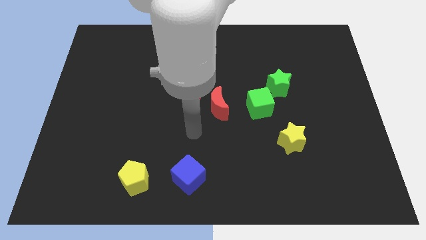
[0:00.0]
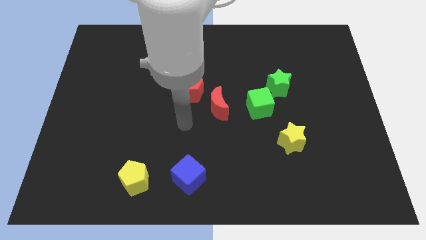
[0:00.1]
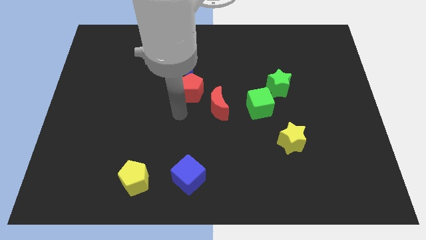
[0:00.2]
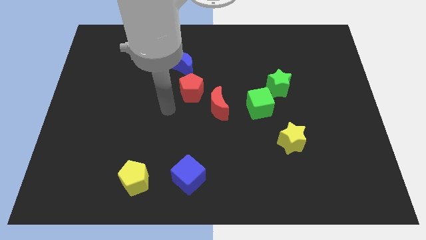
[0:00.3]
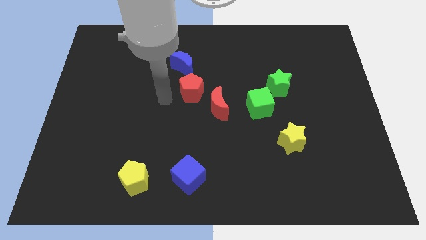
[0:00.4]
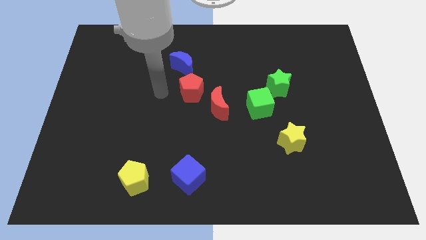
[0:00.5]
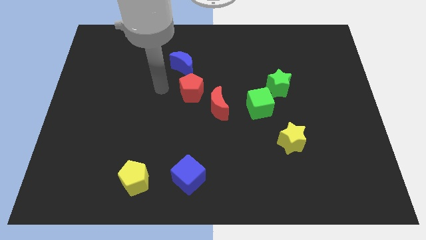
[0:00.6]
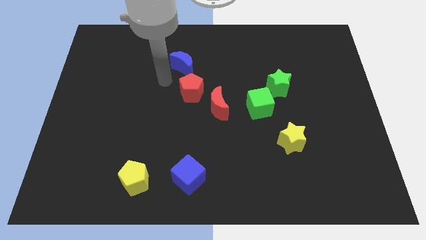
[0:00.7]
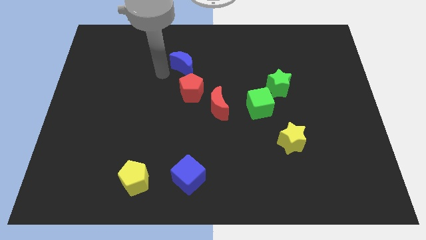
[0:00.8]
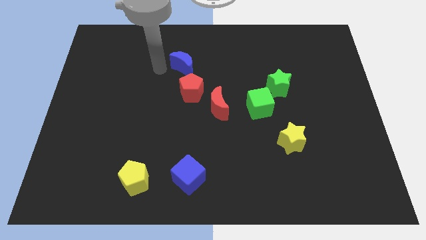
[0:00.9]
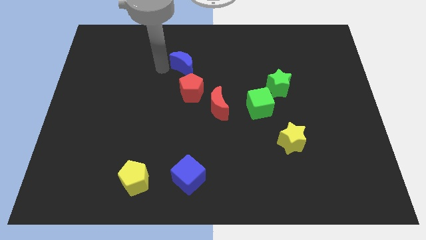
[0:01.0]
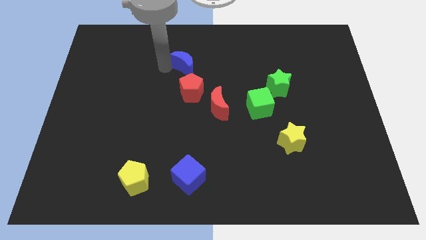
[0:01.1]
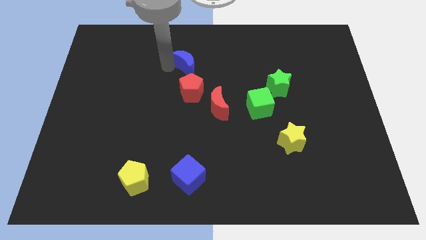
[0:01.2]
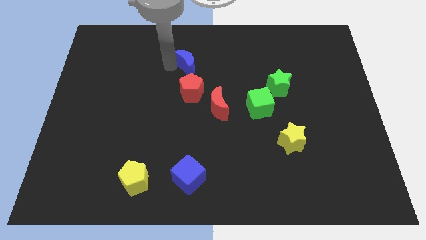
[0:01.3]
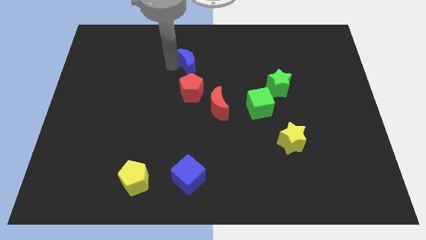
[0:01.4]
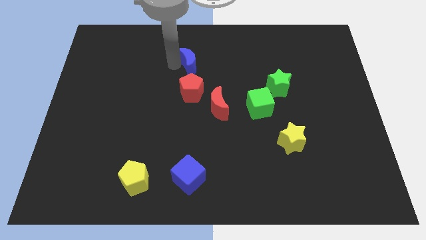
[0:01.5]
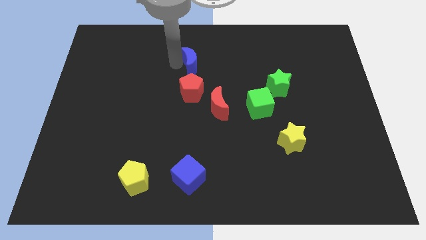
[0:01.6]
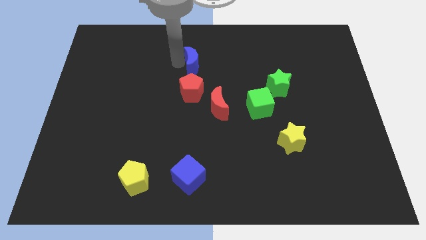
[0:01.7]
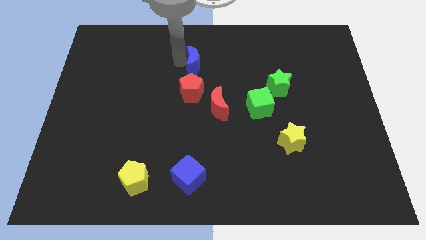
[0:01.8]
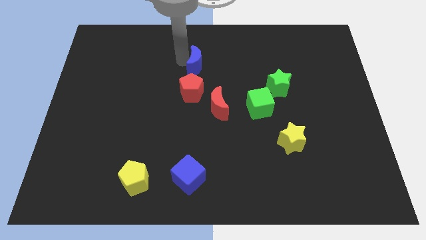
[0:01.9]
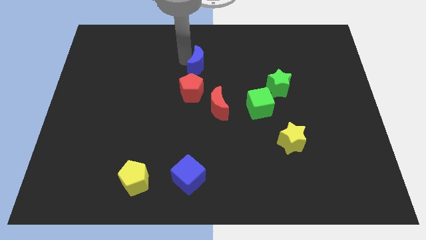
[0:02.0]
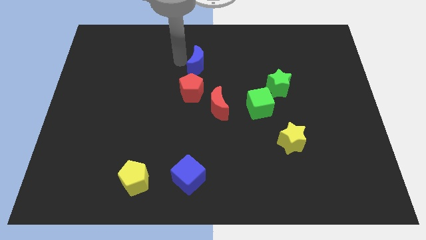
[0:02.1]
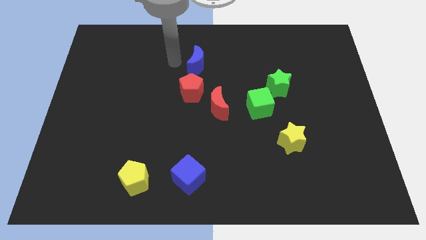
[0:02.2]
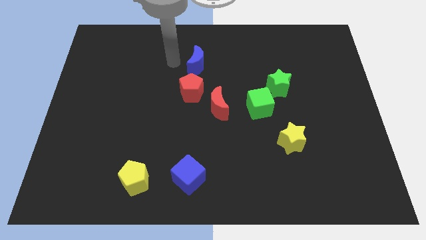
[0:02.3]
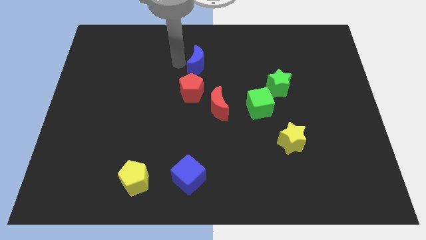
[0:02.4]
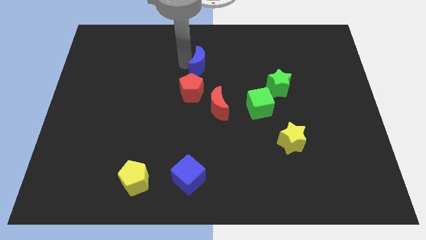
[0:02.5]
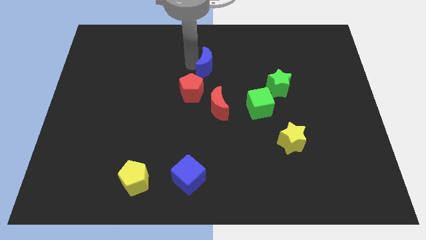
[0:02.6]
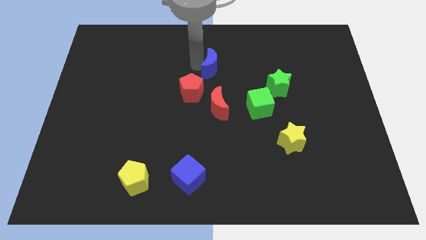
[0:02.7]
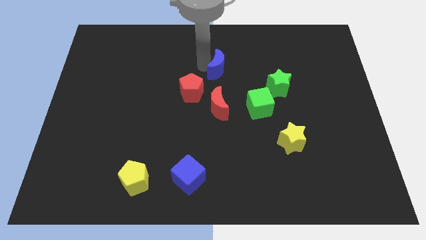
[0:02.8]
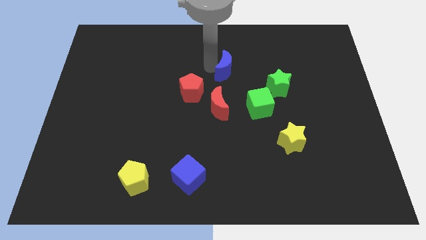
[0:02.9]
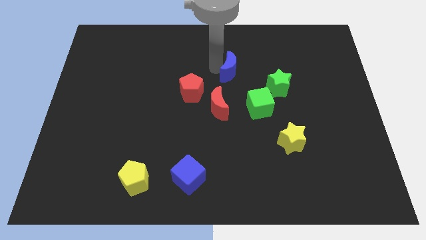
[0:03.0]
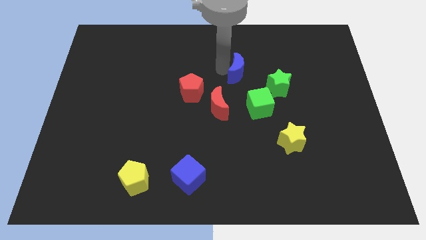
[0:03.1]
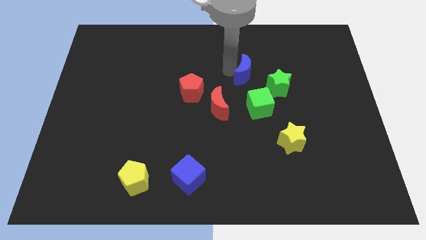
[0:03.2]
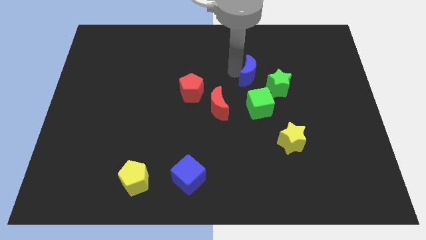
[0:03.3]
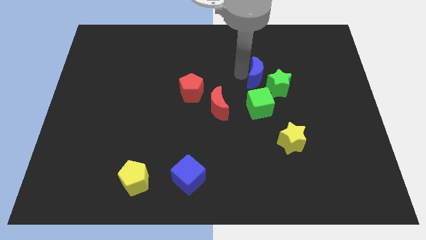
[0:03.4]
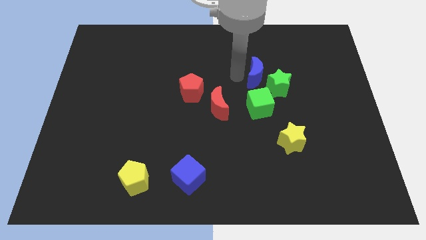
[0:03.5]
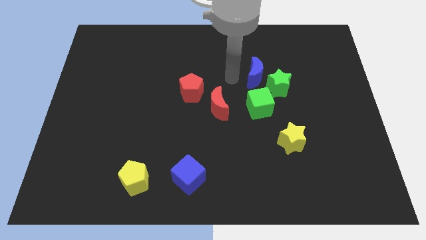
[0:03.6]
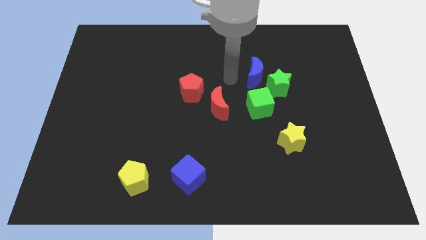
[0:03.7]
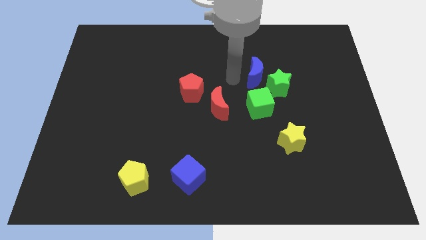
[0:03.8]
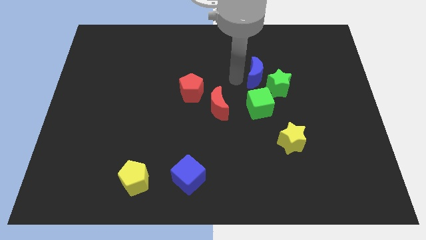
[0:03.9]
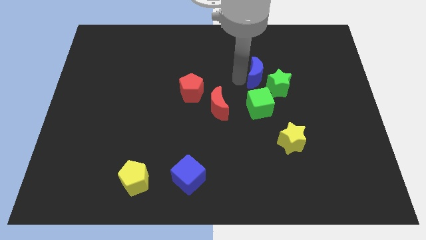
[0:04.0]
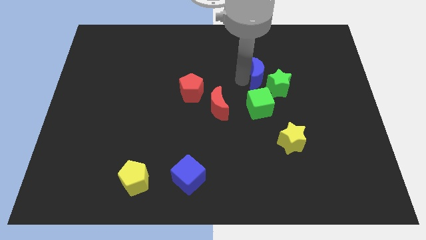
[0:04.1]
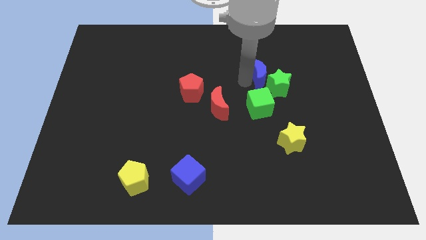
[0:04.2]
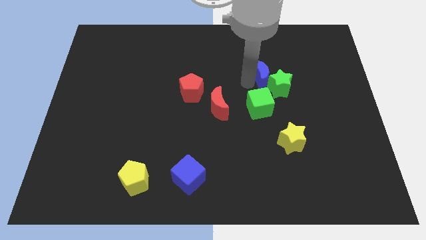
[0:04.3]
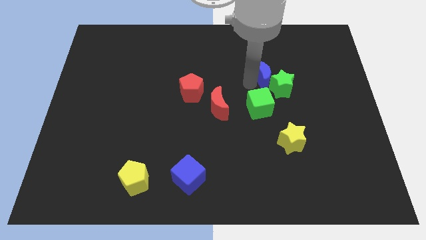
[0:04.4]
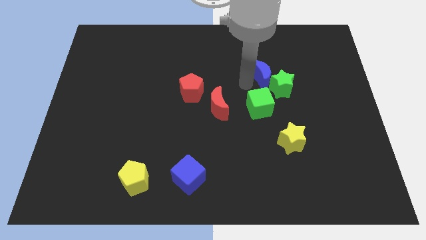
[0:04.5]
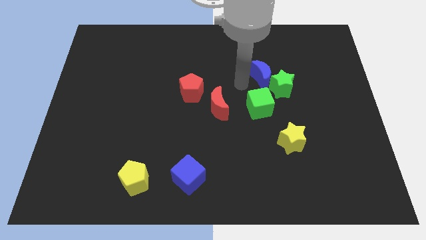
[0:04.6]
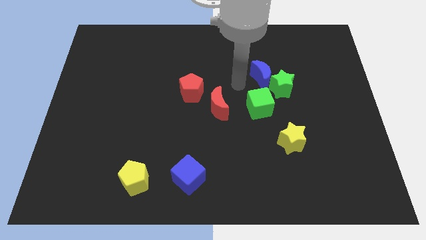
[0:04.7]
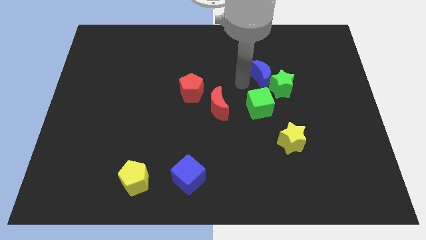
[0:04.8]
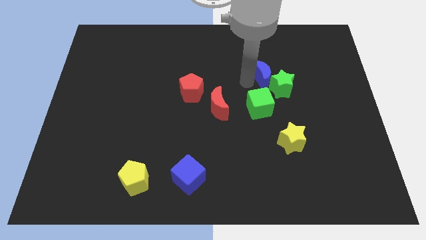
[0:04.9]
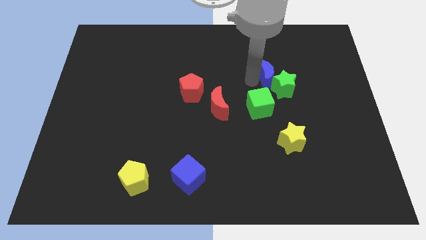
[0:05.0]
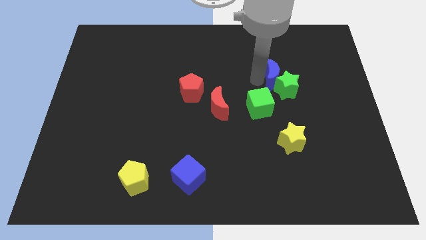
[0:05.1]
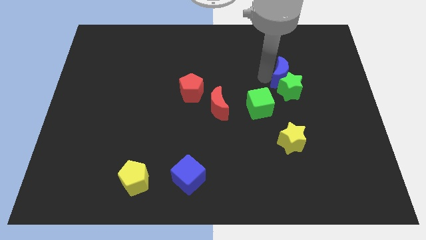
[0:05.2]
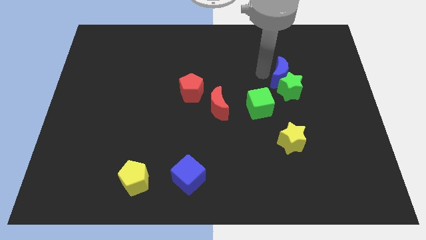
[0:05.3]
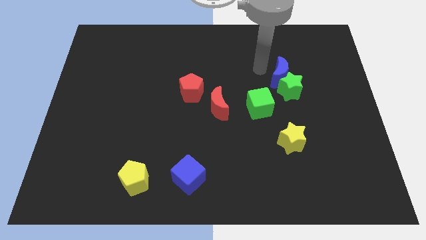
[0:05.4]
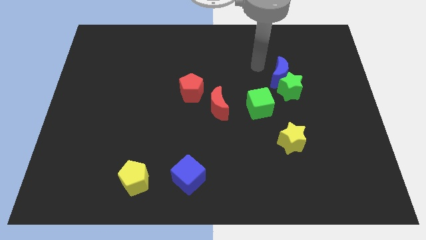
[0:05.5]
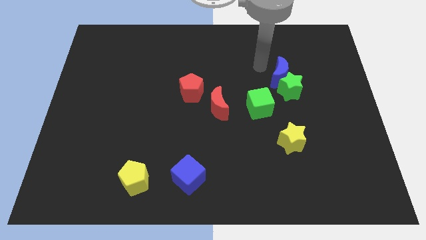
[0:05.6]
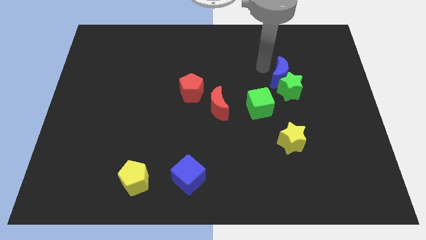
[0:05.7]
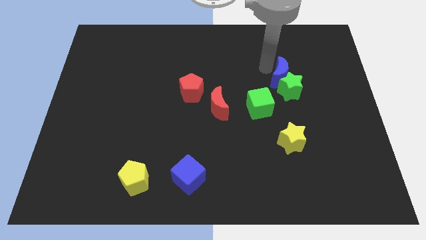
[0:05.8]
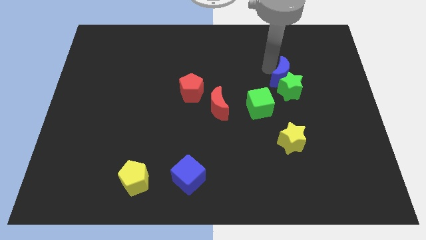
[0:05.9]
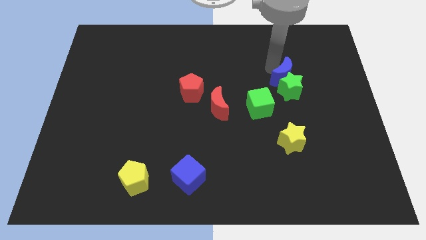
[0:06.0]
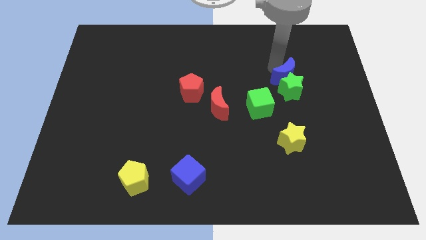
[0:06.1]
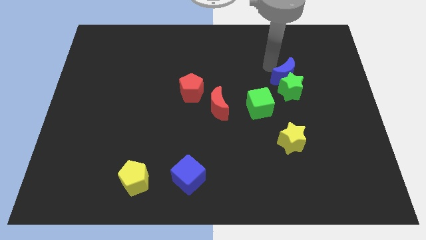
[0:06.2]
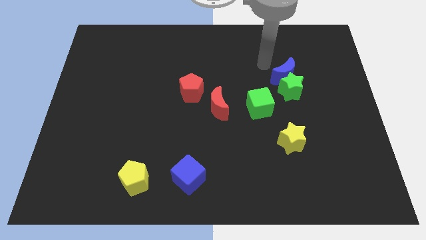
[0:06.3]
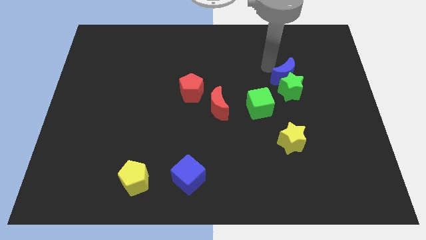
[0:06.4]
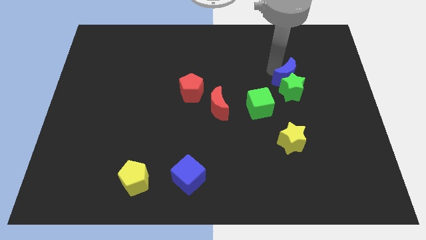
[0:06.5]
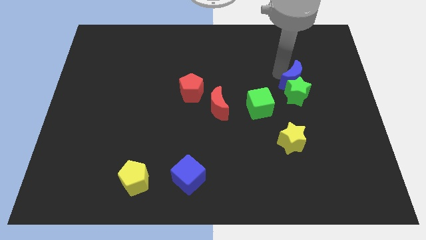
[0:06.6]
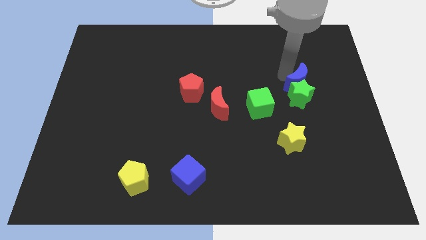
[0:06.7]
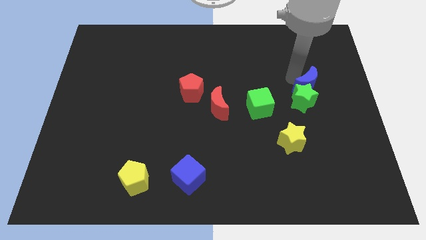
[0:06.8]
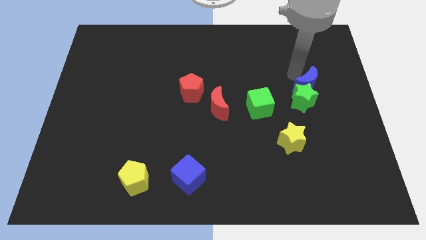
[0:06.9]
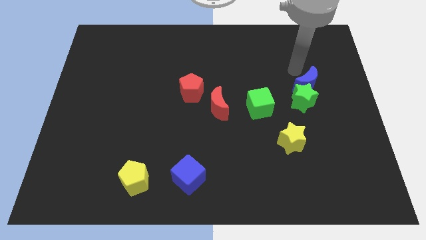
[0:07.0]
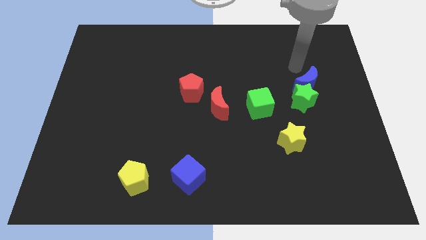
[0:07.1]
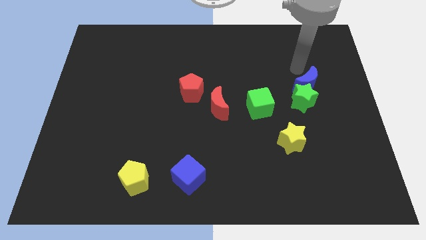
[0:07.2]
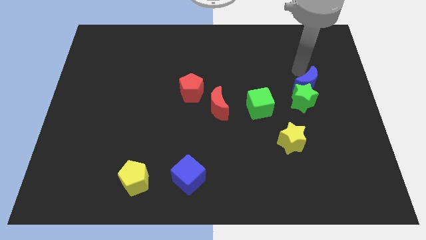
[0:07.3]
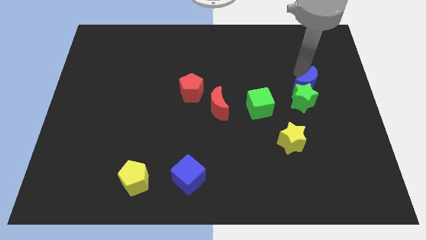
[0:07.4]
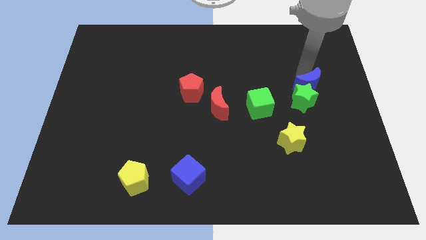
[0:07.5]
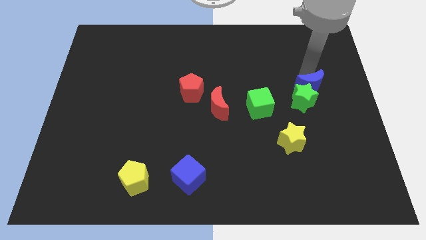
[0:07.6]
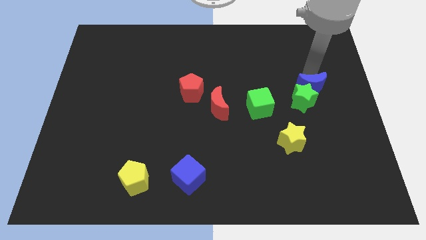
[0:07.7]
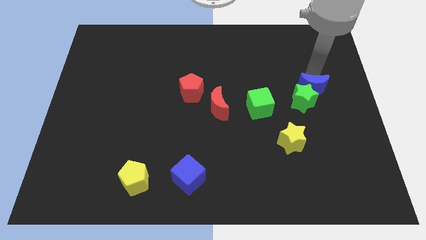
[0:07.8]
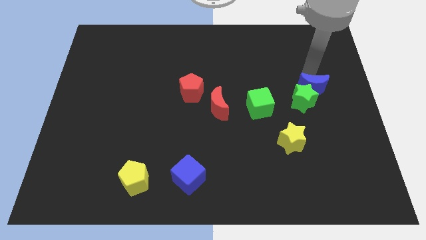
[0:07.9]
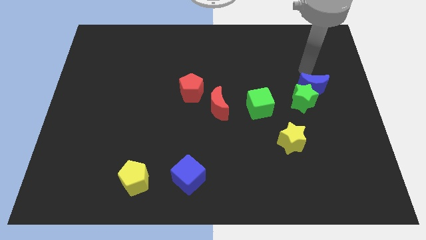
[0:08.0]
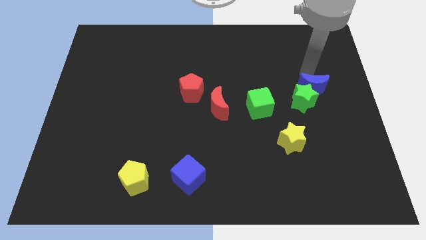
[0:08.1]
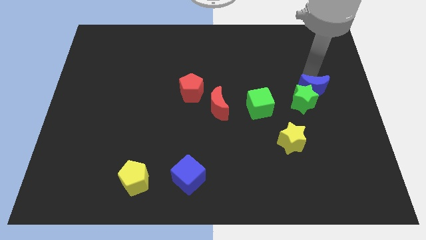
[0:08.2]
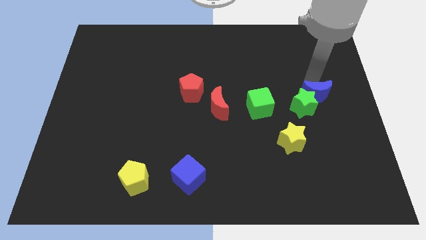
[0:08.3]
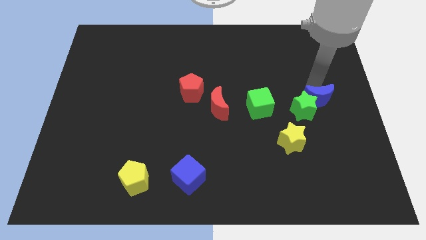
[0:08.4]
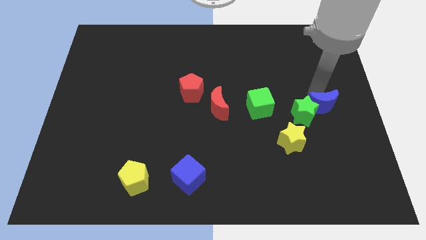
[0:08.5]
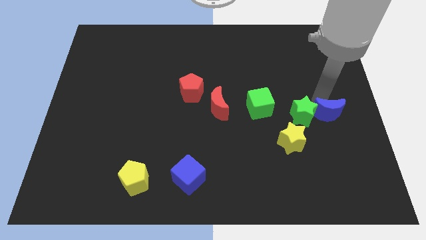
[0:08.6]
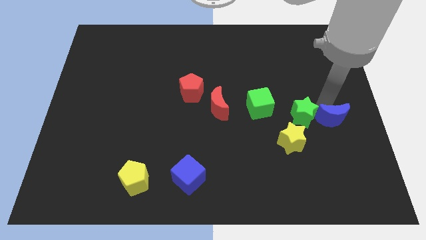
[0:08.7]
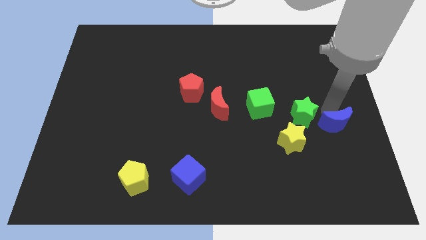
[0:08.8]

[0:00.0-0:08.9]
put the blue moon right of the yellow star
